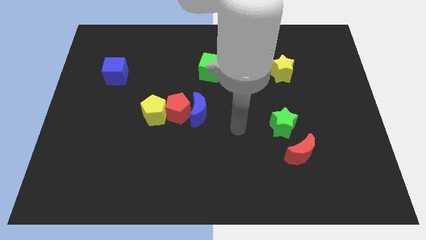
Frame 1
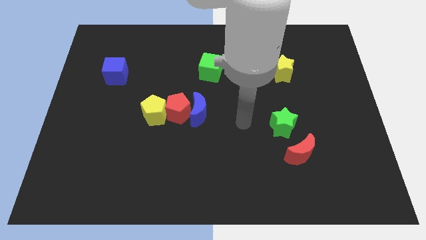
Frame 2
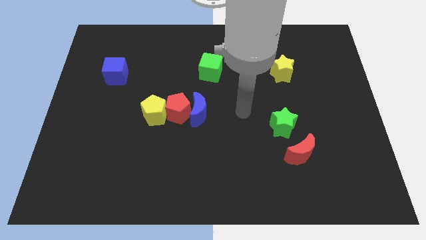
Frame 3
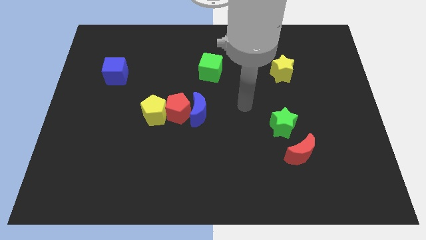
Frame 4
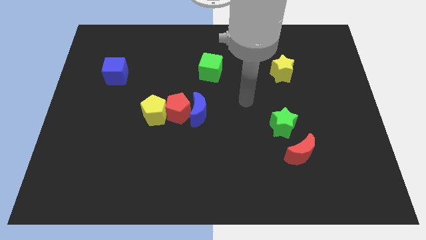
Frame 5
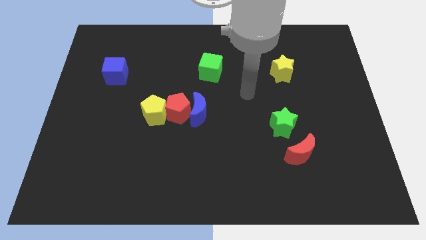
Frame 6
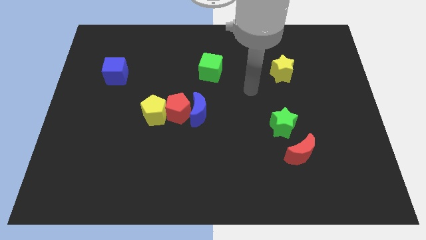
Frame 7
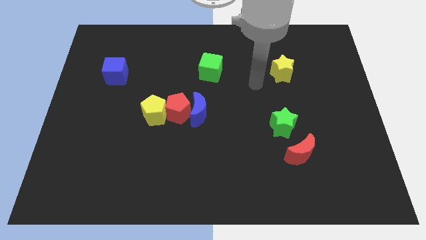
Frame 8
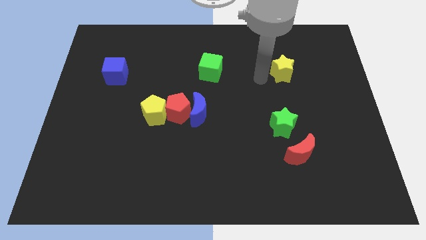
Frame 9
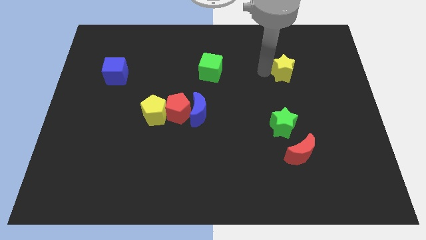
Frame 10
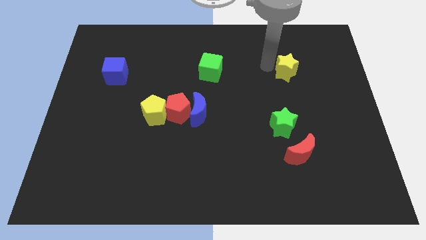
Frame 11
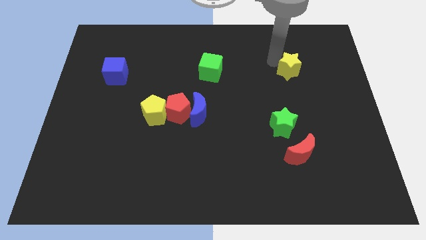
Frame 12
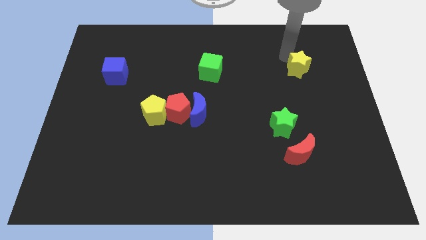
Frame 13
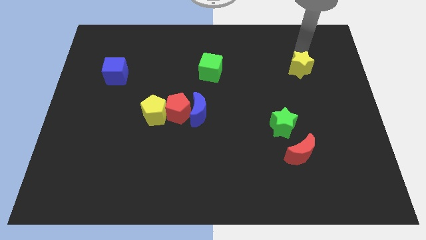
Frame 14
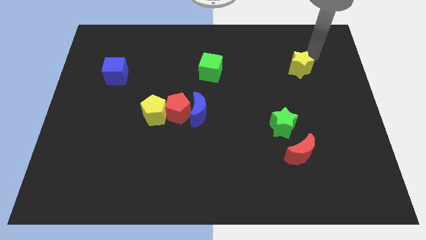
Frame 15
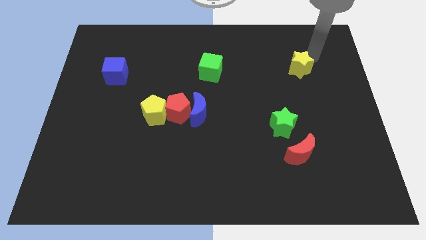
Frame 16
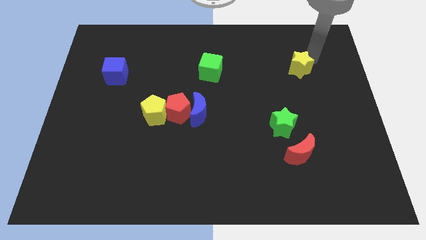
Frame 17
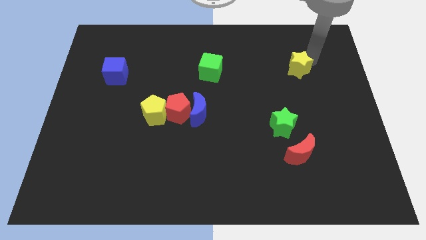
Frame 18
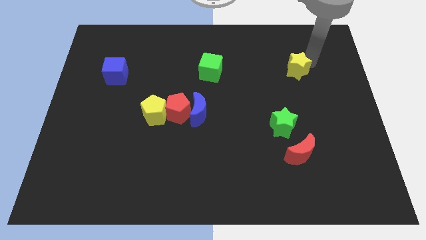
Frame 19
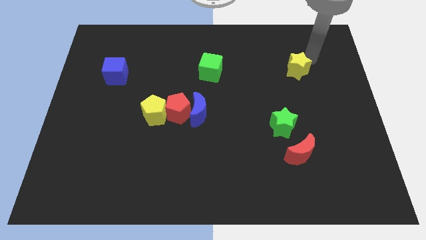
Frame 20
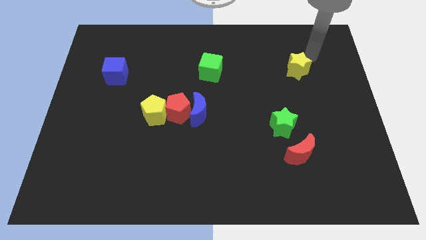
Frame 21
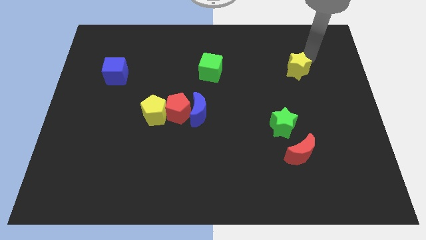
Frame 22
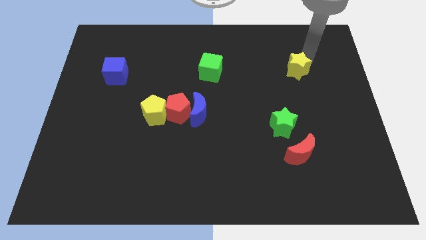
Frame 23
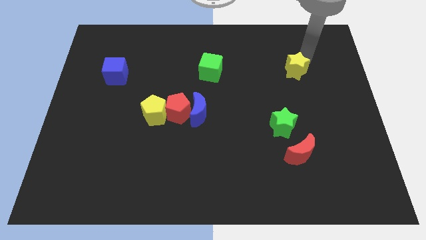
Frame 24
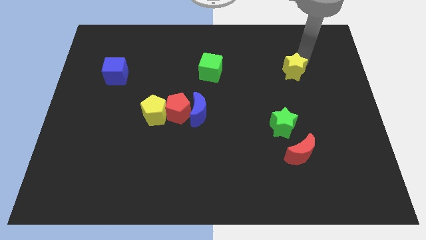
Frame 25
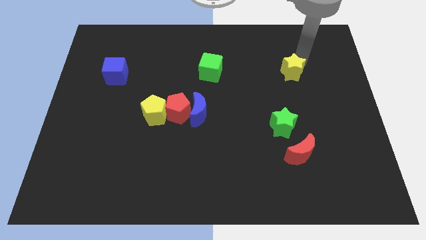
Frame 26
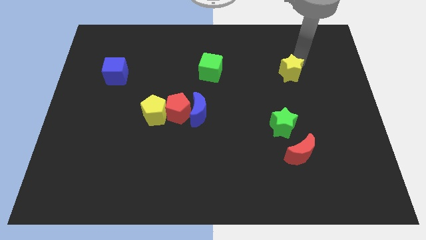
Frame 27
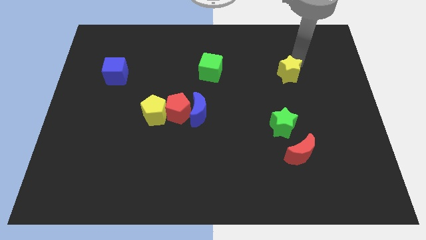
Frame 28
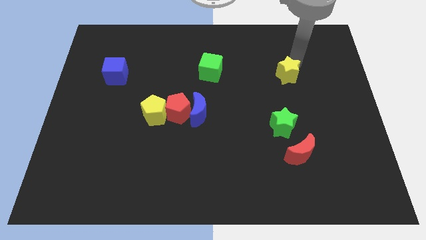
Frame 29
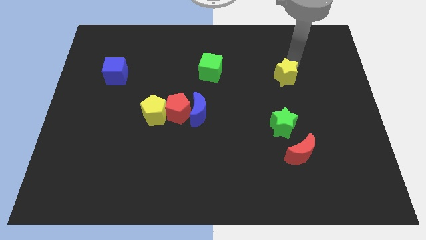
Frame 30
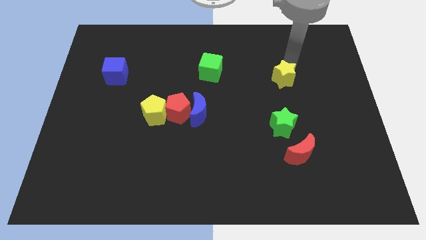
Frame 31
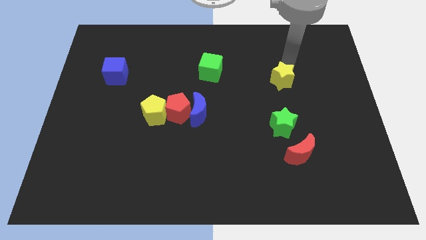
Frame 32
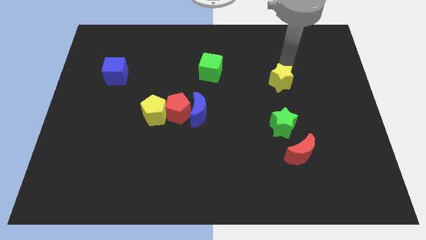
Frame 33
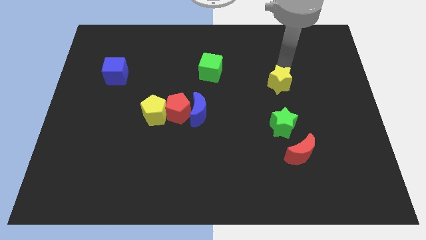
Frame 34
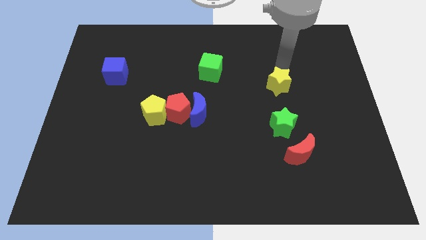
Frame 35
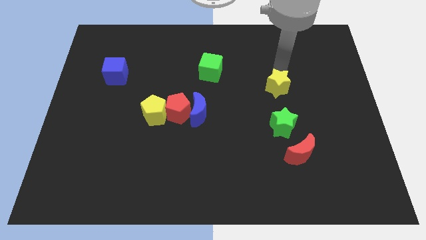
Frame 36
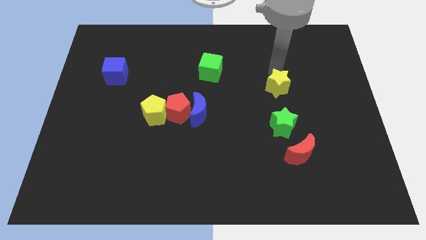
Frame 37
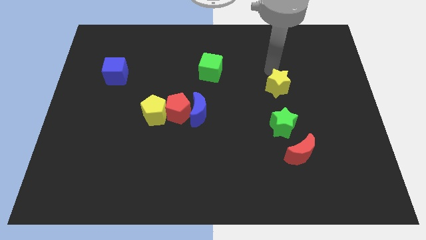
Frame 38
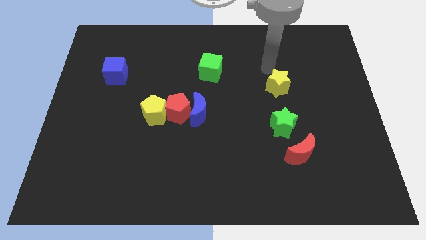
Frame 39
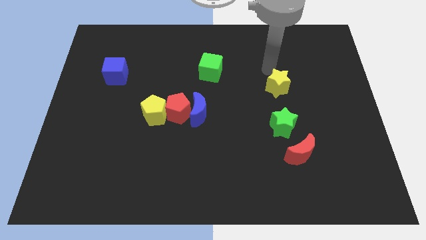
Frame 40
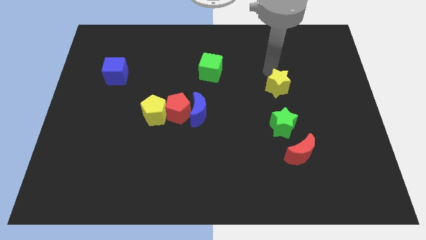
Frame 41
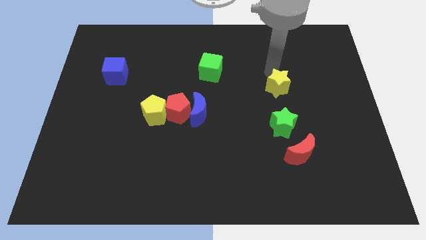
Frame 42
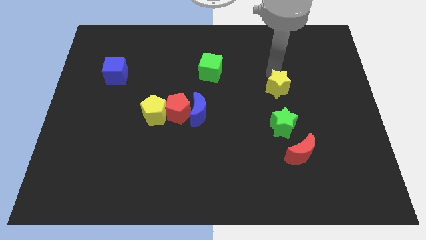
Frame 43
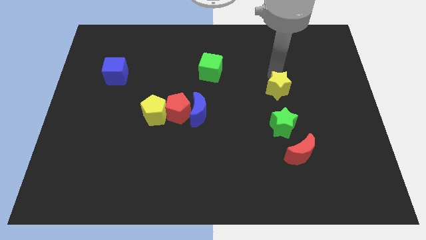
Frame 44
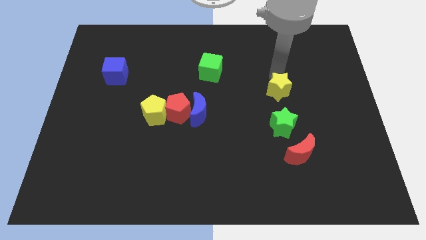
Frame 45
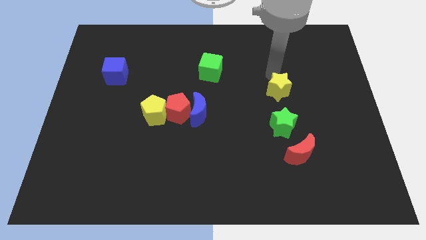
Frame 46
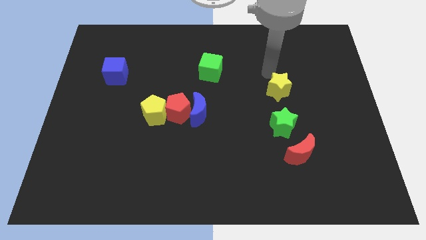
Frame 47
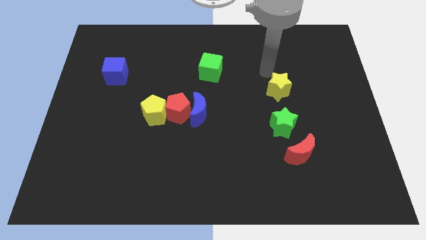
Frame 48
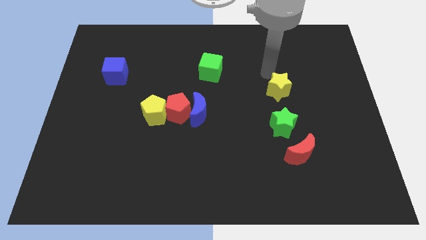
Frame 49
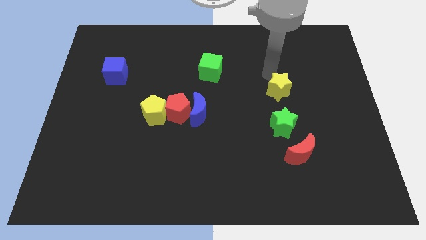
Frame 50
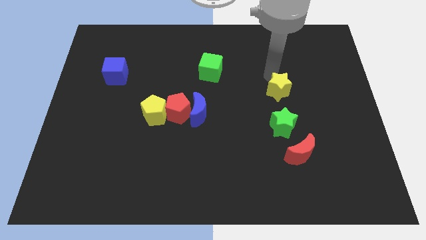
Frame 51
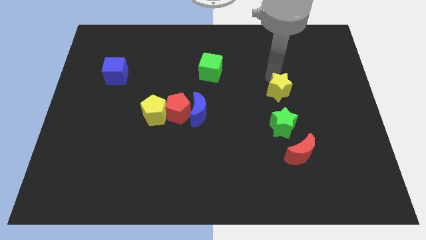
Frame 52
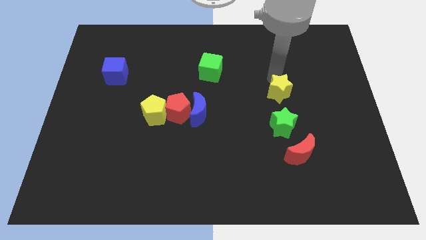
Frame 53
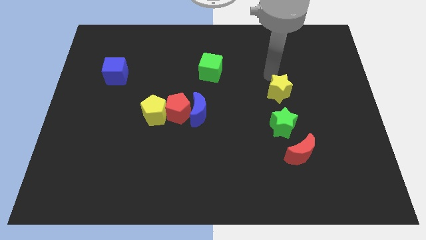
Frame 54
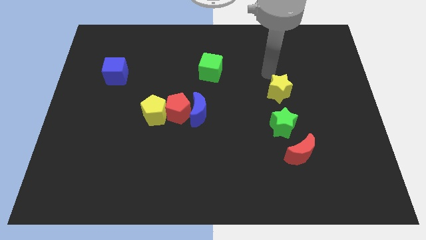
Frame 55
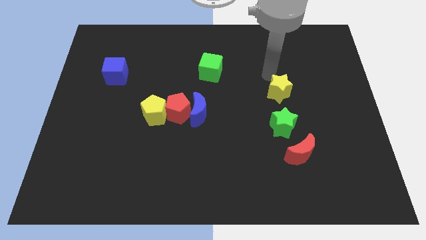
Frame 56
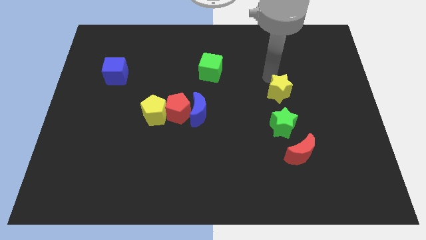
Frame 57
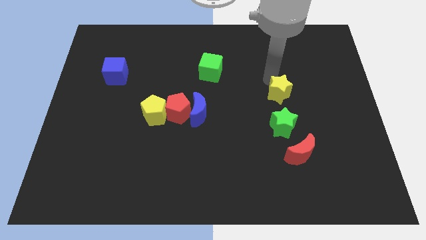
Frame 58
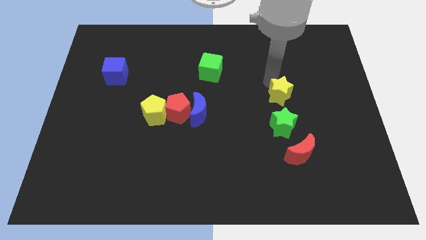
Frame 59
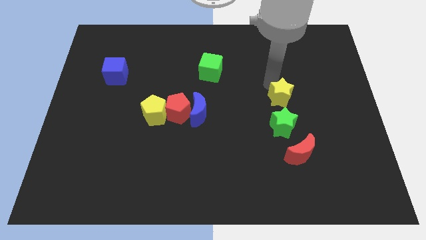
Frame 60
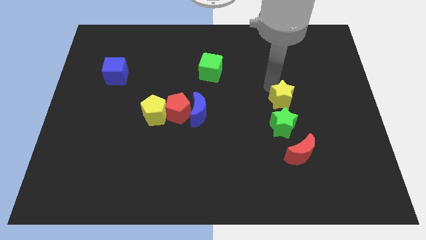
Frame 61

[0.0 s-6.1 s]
slide the yellow star to the top of the red moon

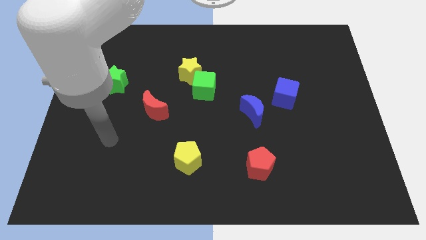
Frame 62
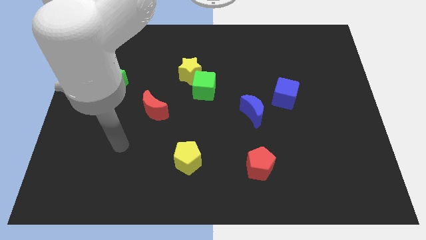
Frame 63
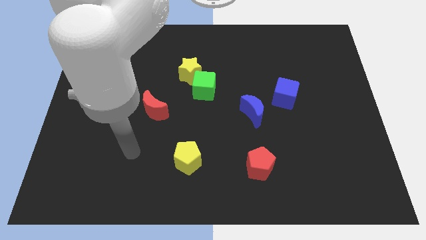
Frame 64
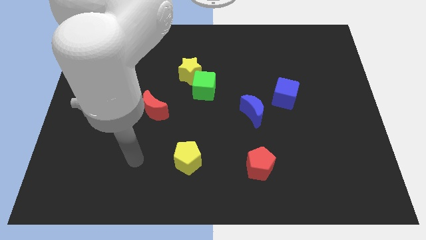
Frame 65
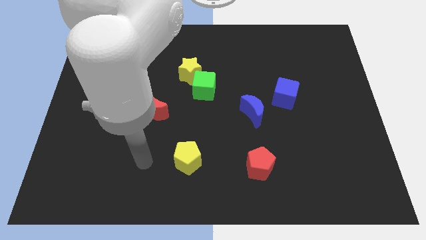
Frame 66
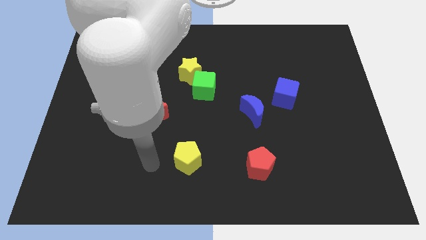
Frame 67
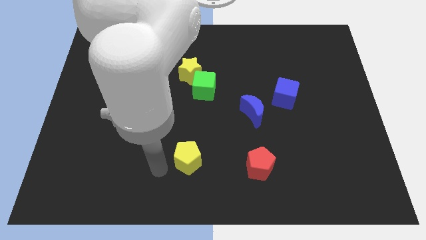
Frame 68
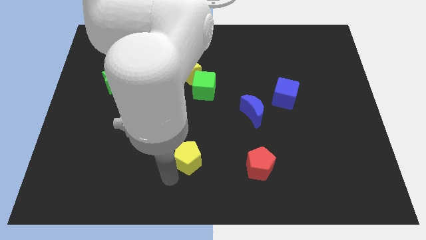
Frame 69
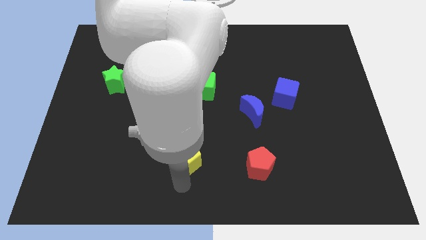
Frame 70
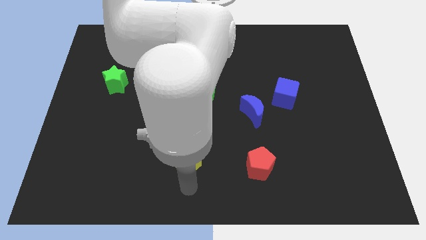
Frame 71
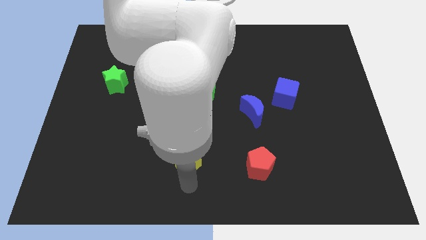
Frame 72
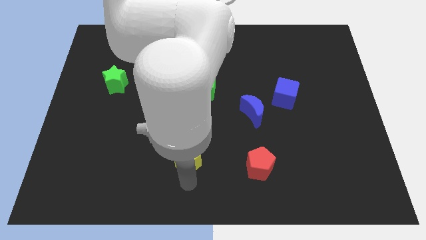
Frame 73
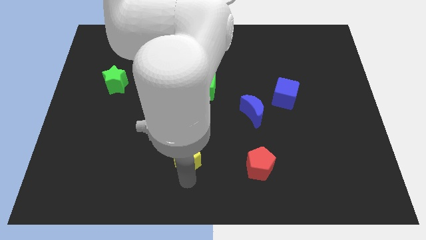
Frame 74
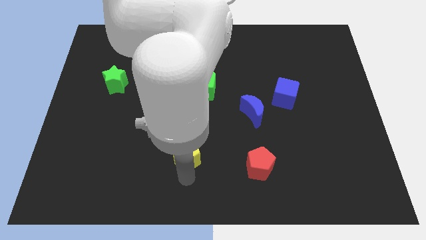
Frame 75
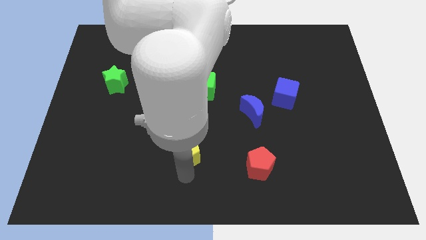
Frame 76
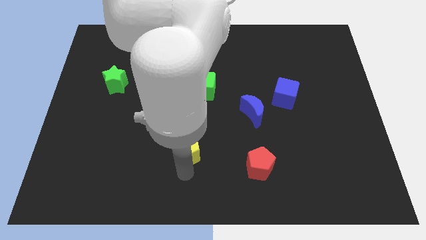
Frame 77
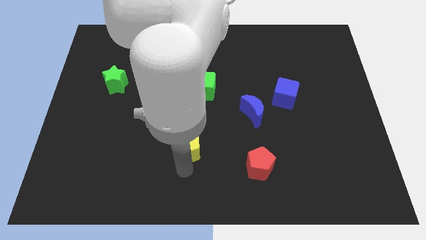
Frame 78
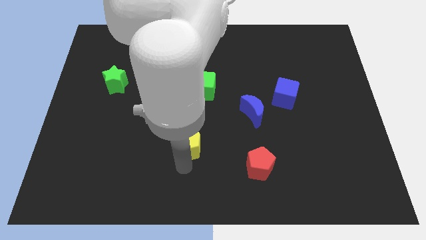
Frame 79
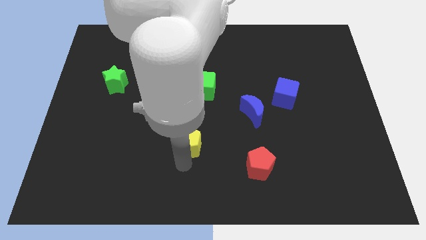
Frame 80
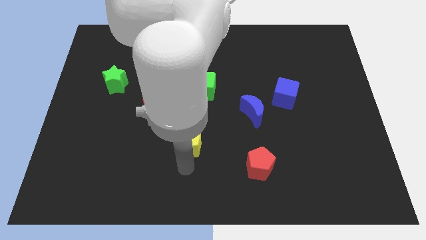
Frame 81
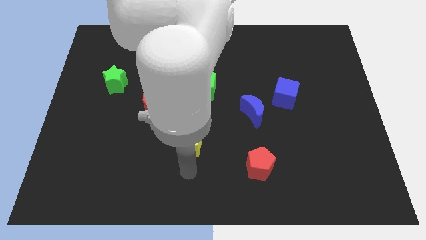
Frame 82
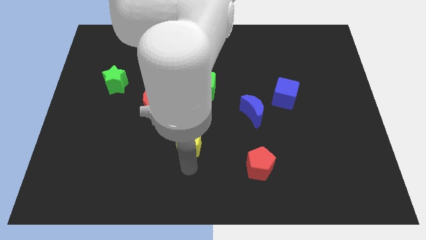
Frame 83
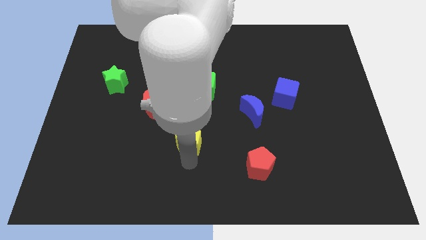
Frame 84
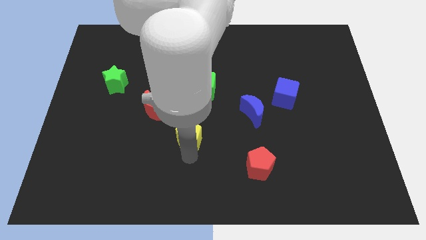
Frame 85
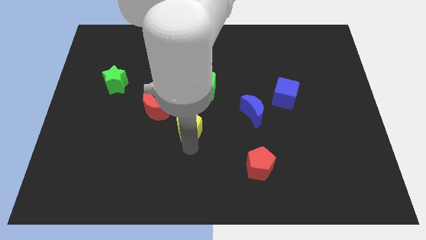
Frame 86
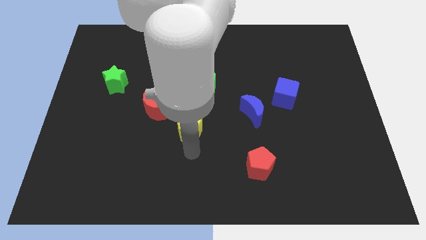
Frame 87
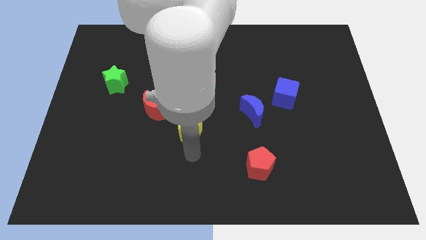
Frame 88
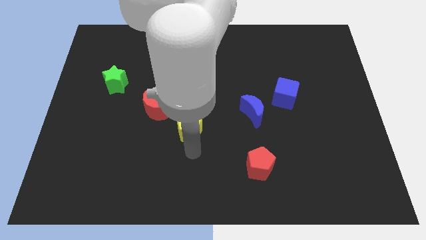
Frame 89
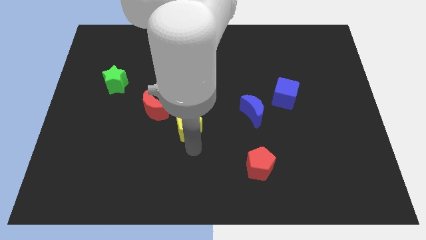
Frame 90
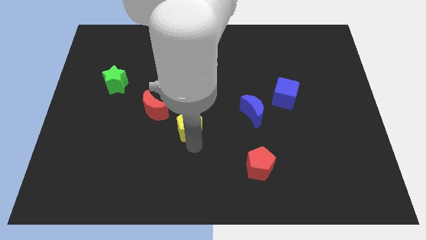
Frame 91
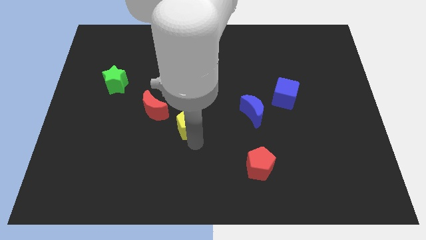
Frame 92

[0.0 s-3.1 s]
put the yellow pentagon to the bottom side of the yellow star
